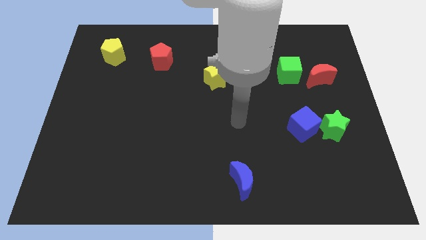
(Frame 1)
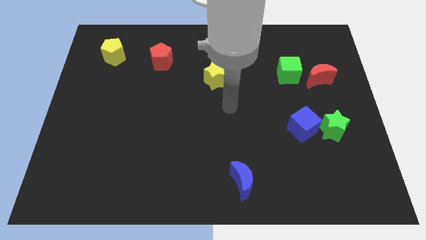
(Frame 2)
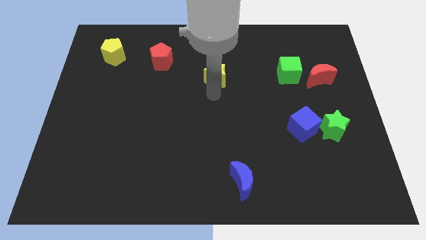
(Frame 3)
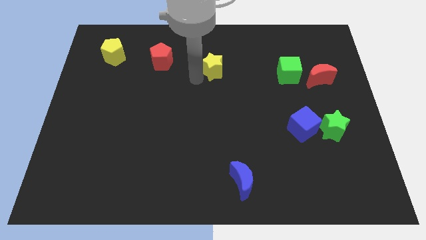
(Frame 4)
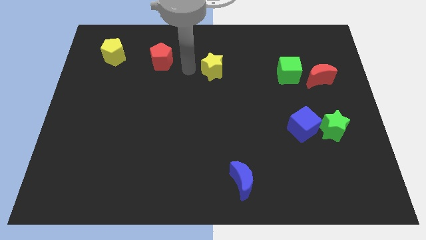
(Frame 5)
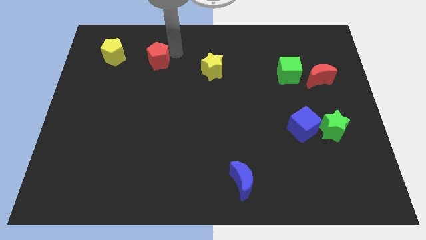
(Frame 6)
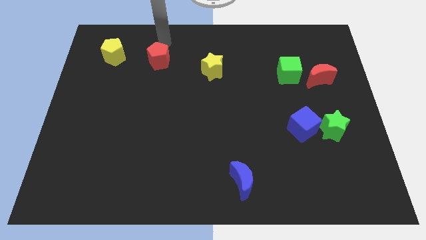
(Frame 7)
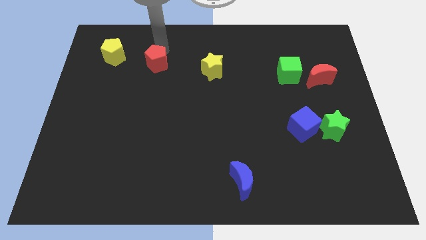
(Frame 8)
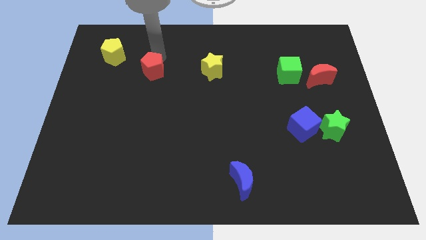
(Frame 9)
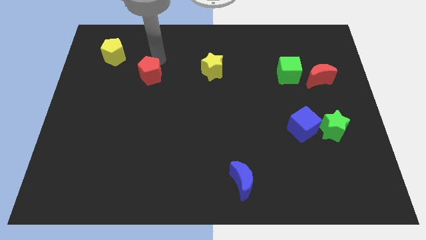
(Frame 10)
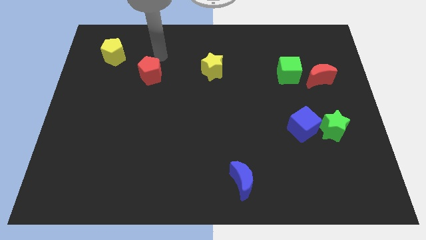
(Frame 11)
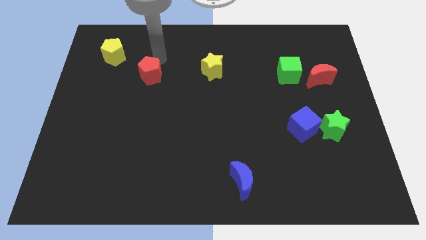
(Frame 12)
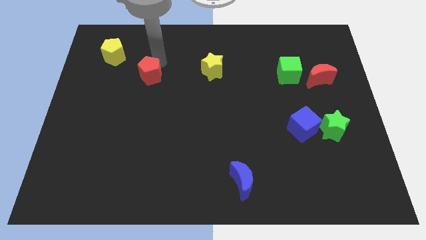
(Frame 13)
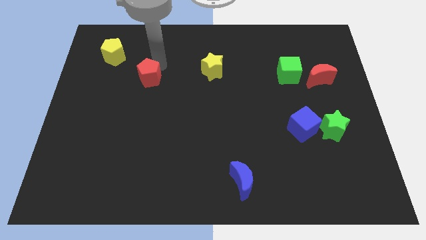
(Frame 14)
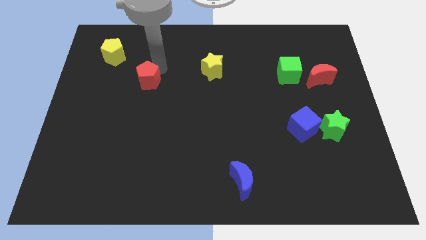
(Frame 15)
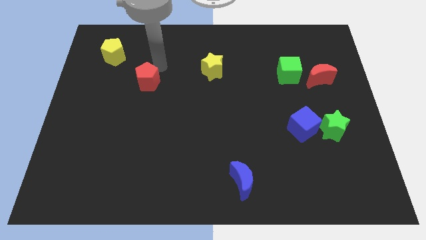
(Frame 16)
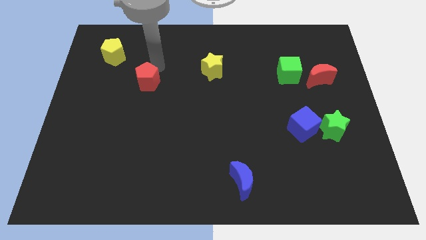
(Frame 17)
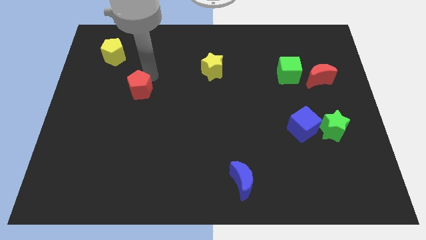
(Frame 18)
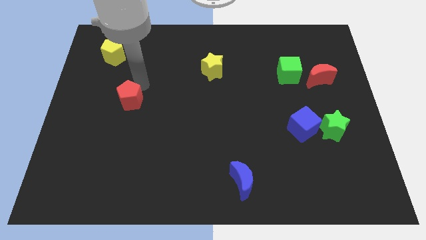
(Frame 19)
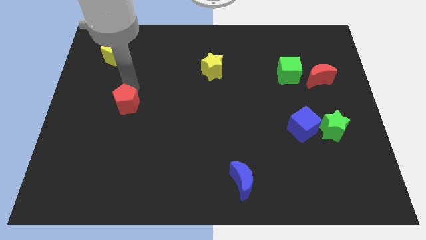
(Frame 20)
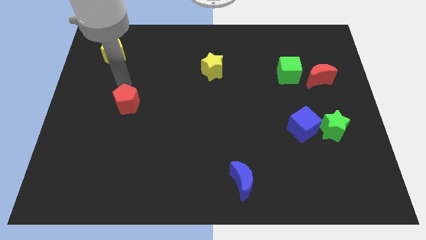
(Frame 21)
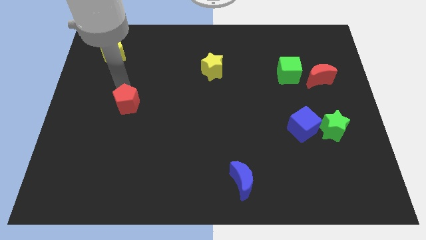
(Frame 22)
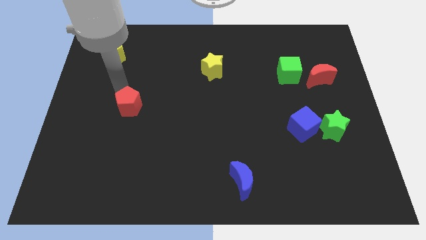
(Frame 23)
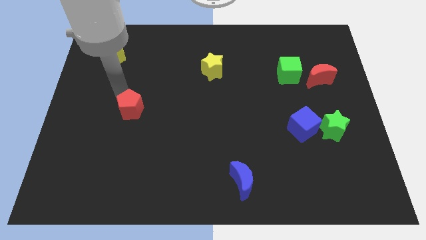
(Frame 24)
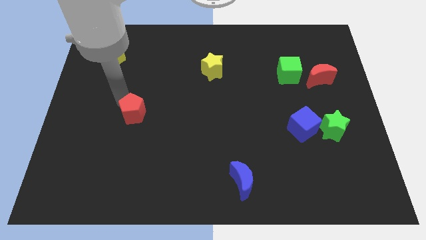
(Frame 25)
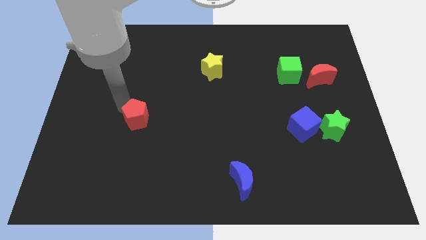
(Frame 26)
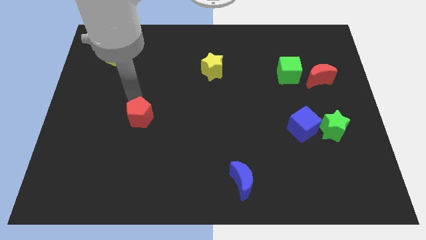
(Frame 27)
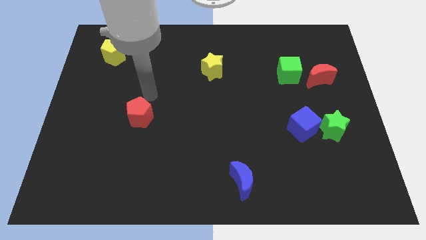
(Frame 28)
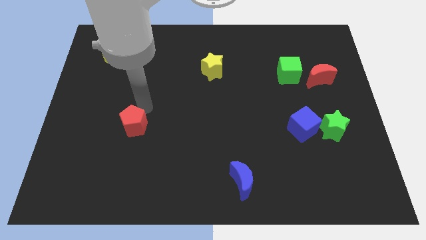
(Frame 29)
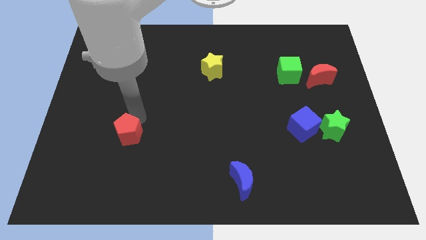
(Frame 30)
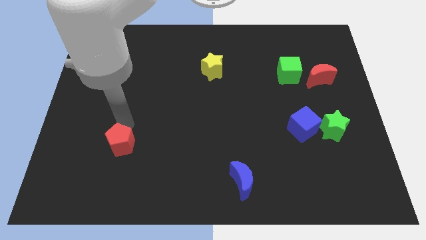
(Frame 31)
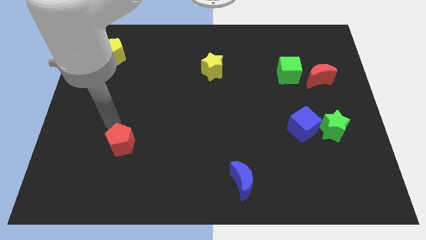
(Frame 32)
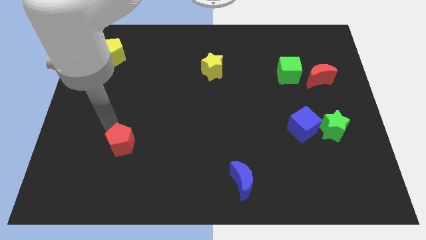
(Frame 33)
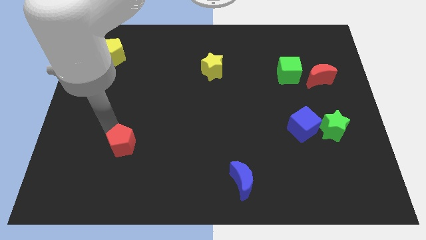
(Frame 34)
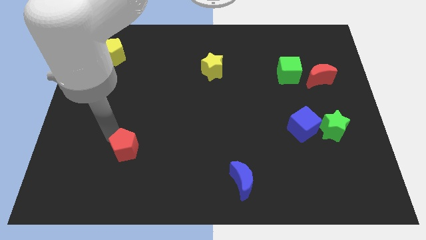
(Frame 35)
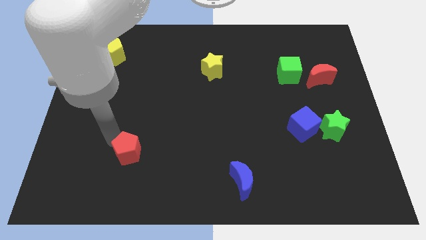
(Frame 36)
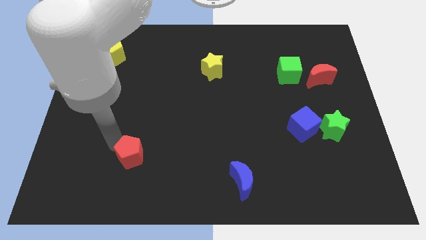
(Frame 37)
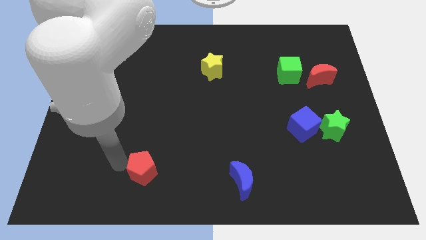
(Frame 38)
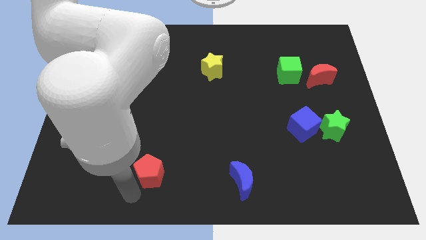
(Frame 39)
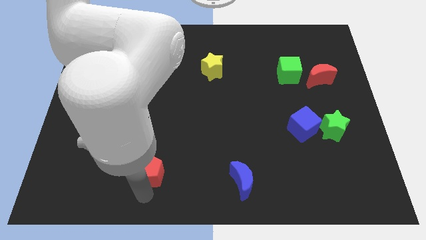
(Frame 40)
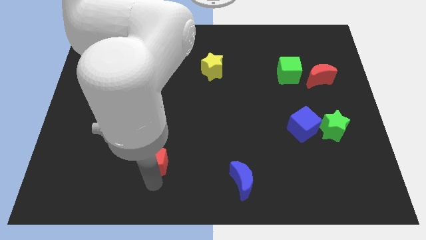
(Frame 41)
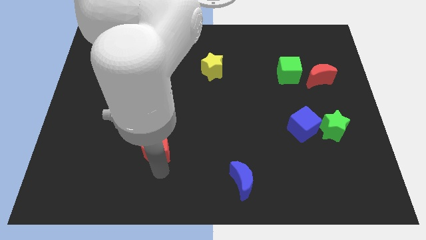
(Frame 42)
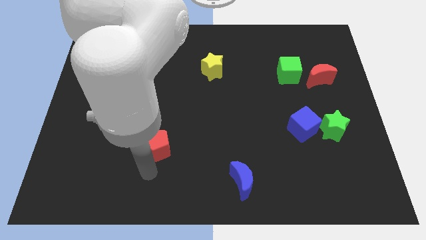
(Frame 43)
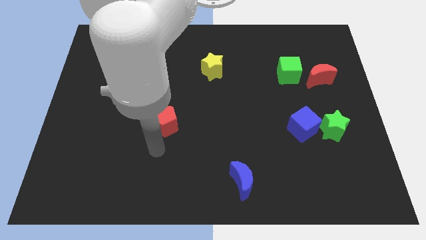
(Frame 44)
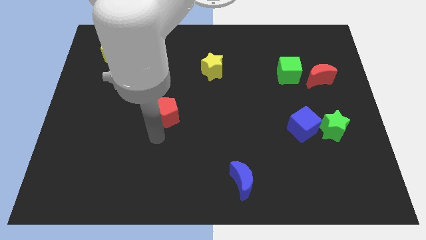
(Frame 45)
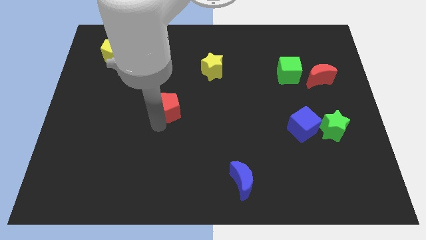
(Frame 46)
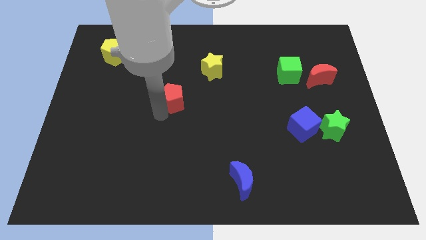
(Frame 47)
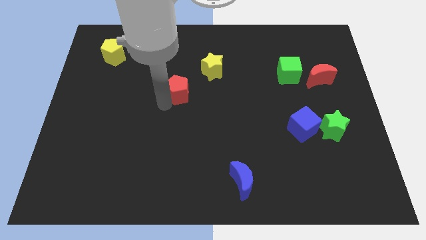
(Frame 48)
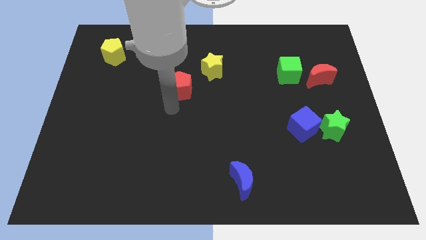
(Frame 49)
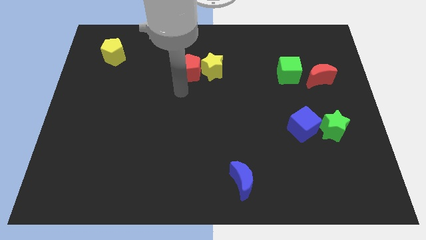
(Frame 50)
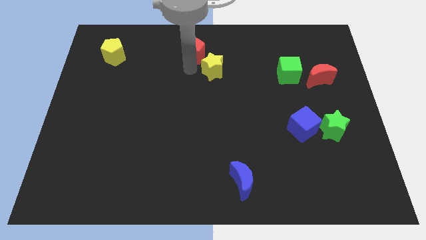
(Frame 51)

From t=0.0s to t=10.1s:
put the red pentagon to the top side

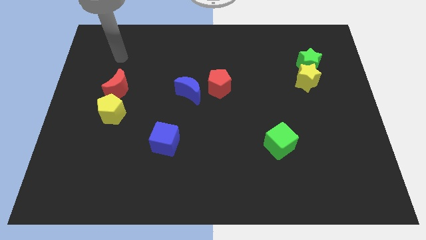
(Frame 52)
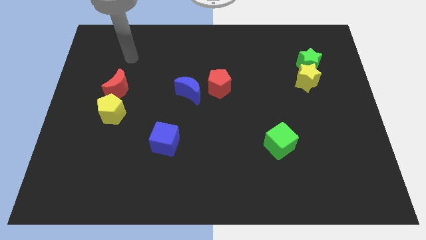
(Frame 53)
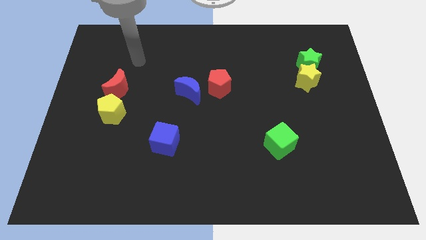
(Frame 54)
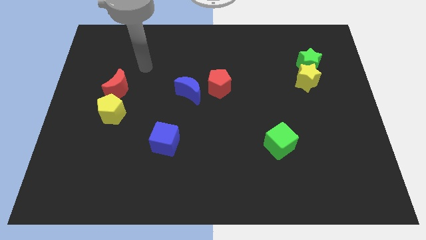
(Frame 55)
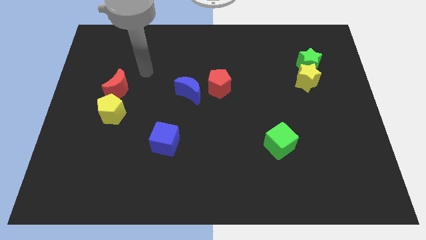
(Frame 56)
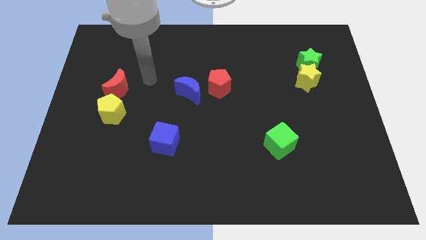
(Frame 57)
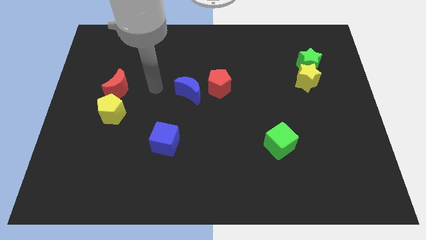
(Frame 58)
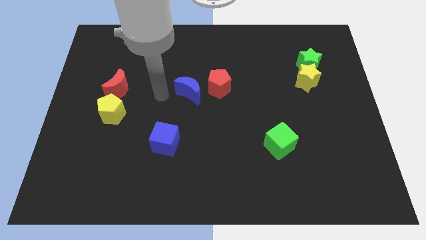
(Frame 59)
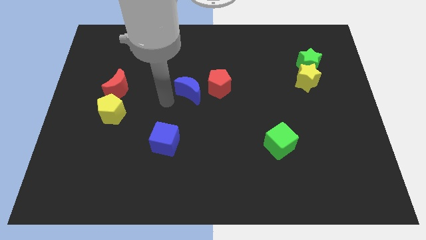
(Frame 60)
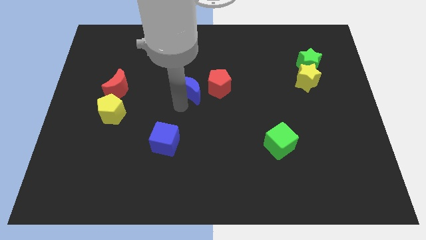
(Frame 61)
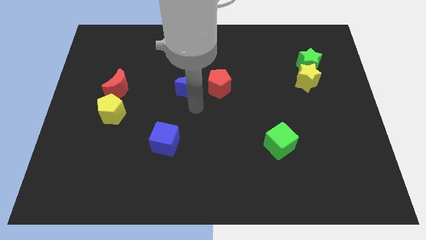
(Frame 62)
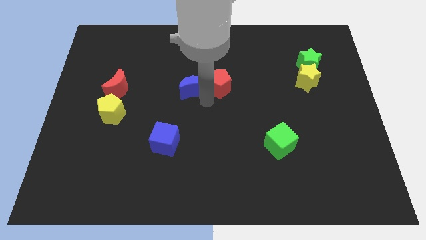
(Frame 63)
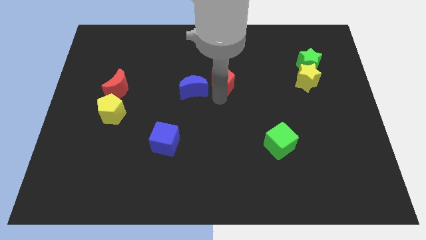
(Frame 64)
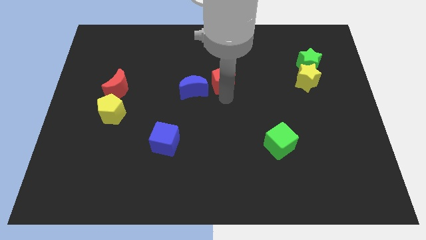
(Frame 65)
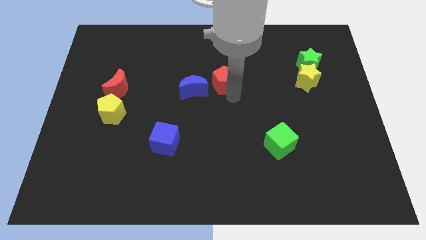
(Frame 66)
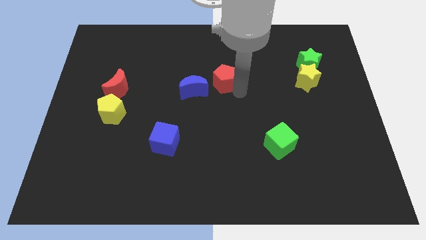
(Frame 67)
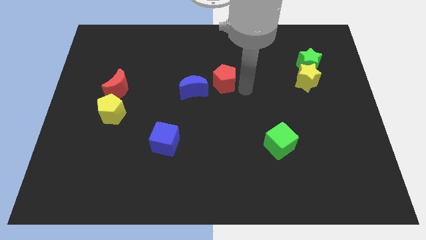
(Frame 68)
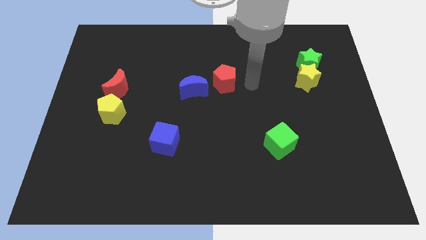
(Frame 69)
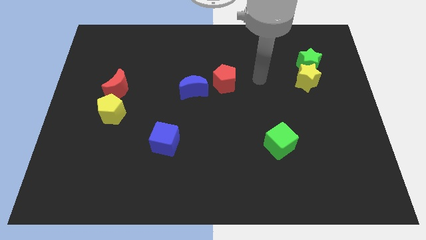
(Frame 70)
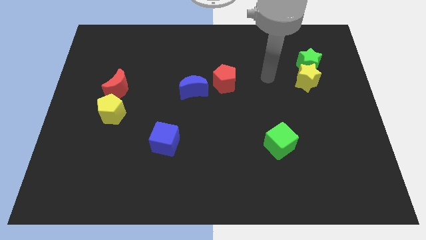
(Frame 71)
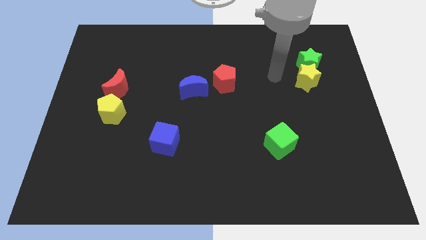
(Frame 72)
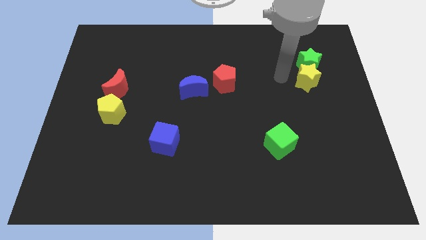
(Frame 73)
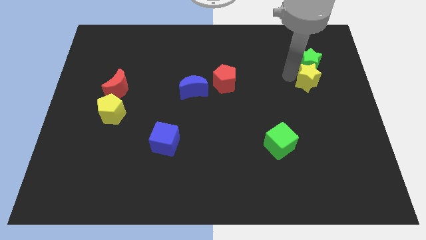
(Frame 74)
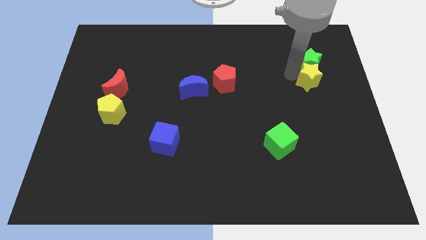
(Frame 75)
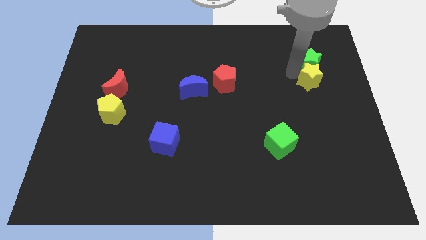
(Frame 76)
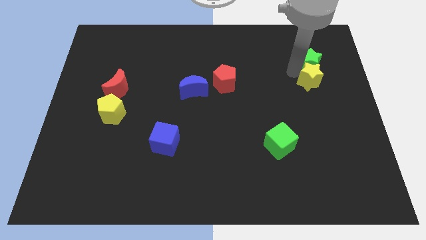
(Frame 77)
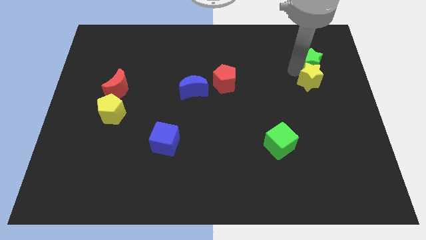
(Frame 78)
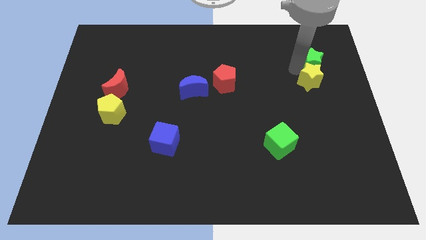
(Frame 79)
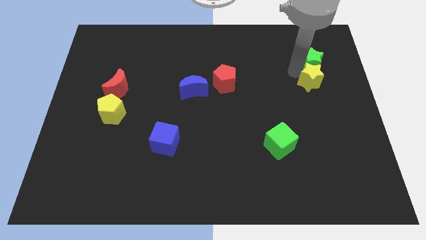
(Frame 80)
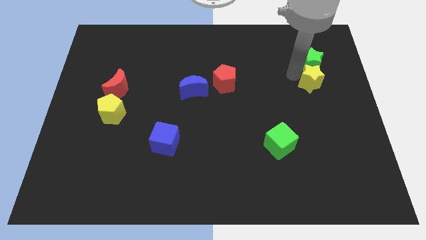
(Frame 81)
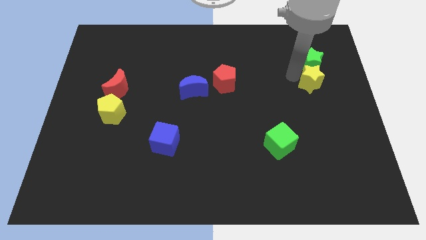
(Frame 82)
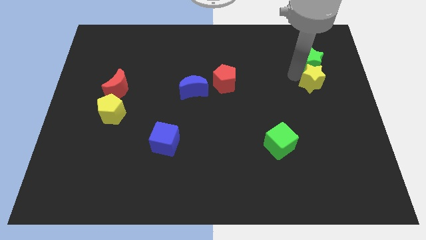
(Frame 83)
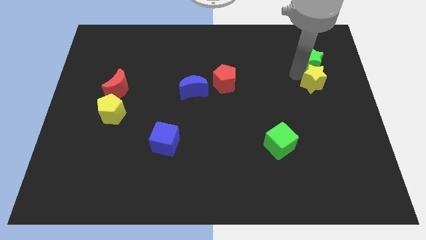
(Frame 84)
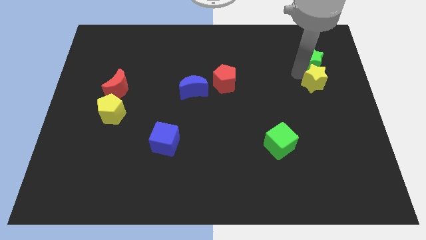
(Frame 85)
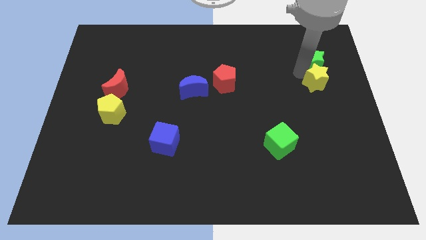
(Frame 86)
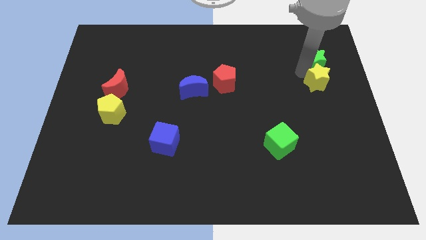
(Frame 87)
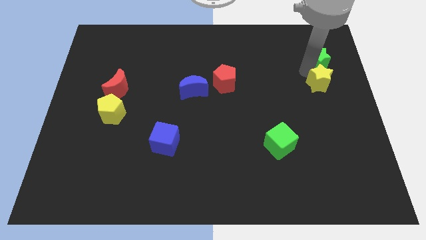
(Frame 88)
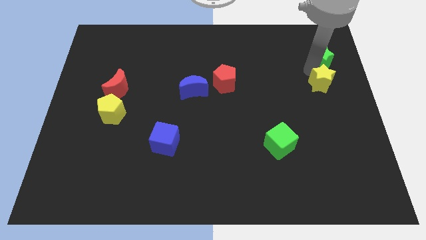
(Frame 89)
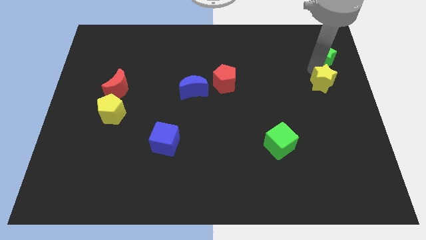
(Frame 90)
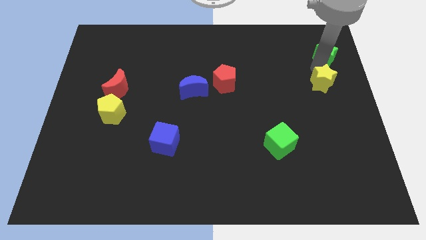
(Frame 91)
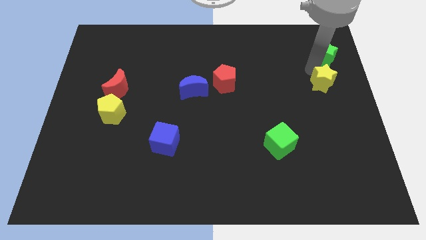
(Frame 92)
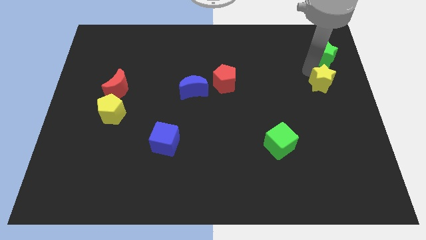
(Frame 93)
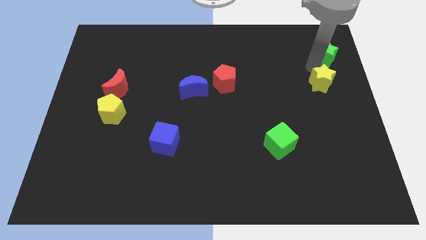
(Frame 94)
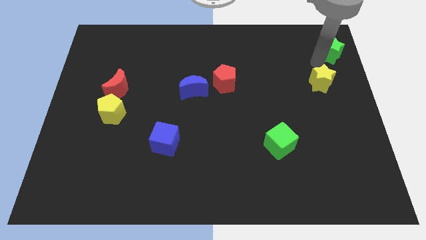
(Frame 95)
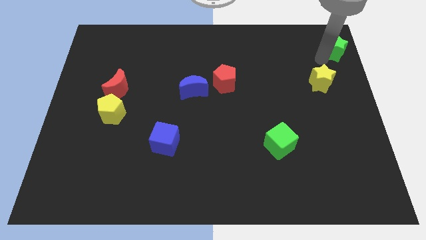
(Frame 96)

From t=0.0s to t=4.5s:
slide the green star to the top right corner
